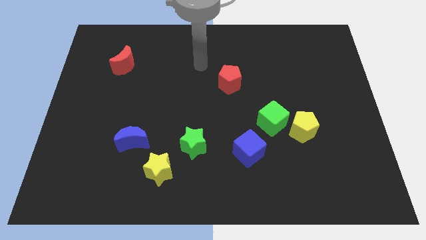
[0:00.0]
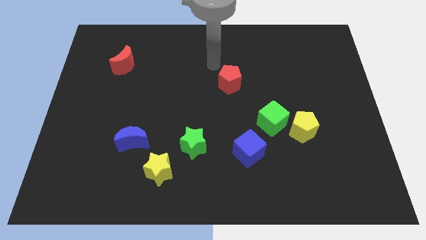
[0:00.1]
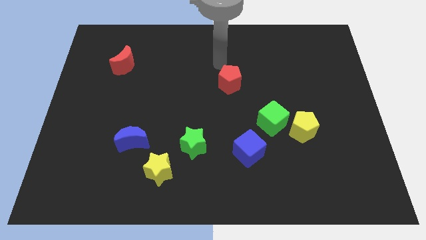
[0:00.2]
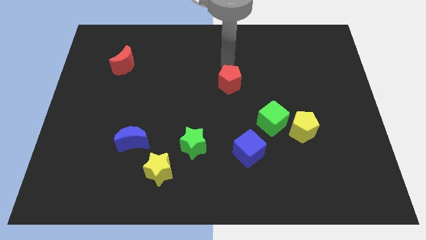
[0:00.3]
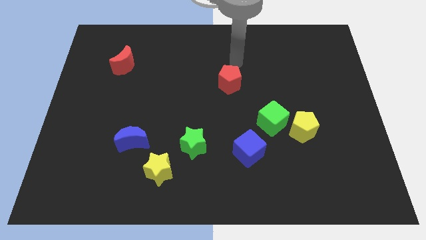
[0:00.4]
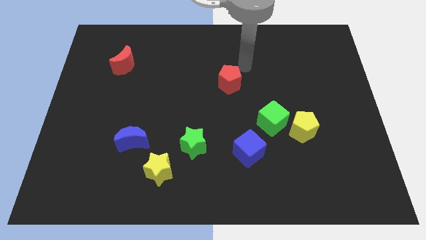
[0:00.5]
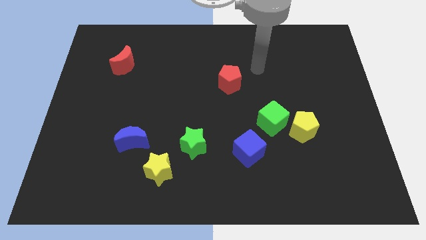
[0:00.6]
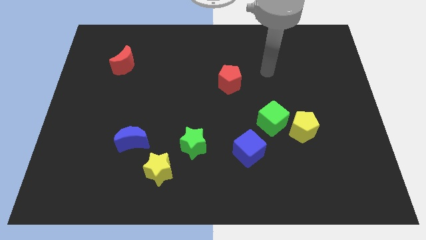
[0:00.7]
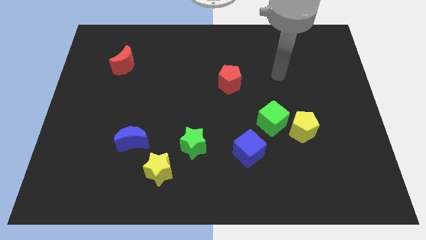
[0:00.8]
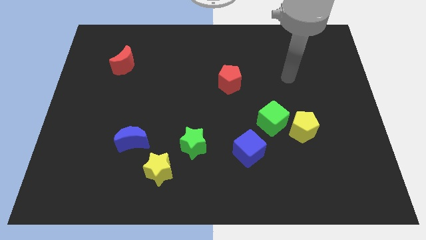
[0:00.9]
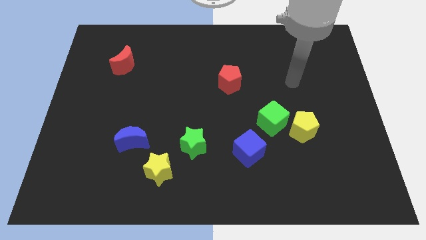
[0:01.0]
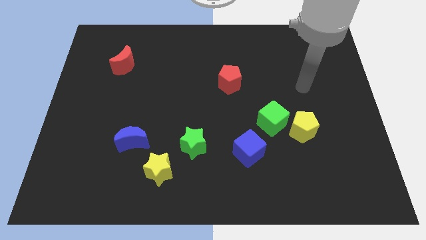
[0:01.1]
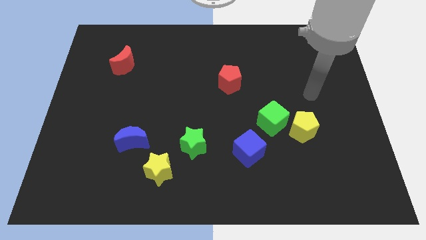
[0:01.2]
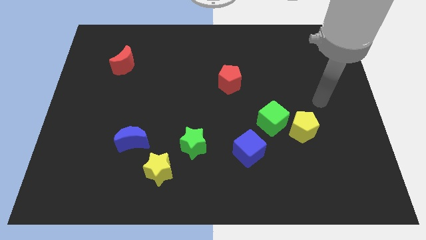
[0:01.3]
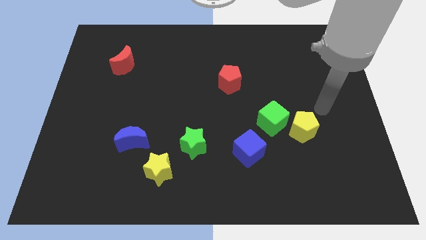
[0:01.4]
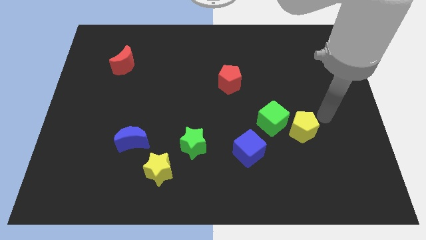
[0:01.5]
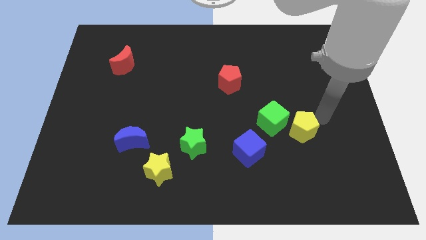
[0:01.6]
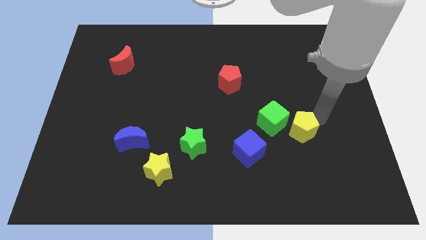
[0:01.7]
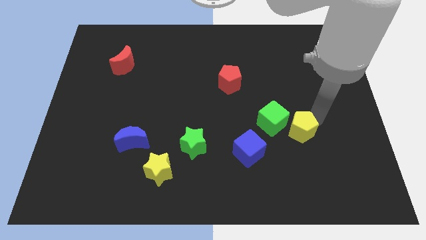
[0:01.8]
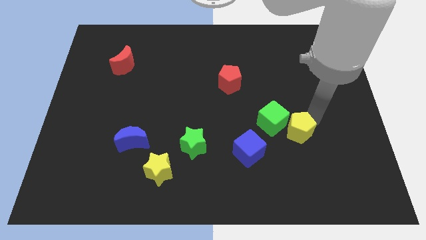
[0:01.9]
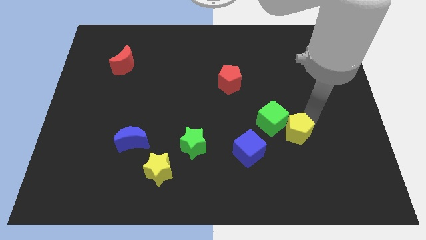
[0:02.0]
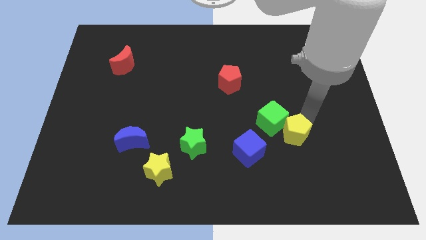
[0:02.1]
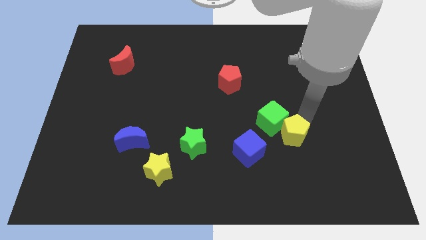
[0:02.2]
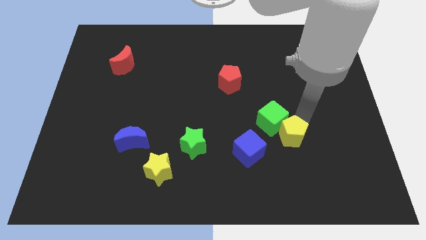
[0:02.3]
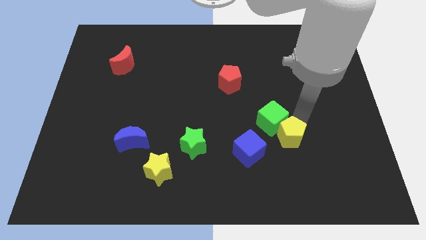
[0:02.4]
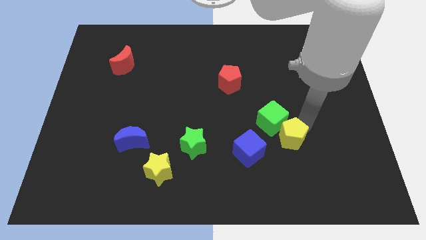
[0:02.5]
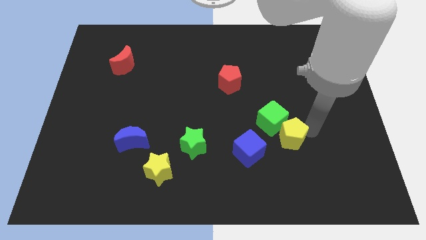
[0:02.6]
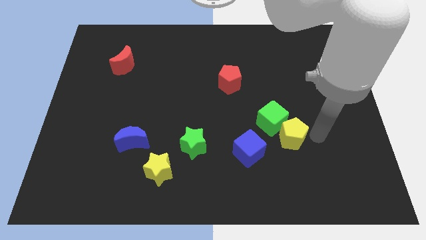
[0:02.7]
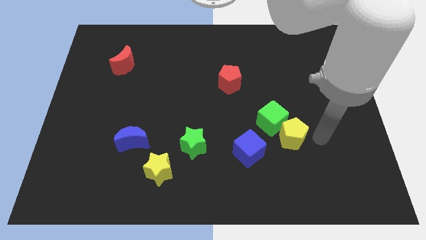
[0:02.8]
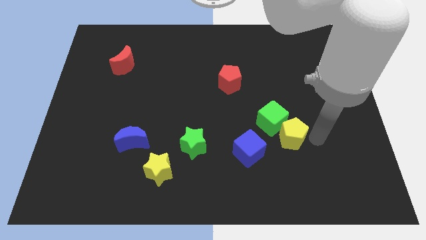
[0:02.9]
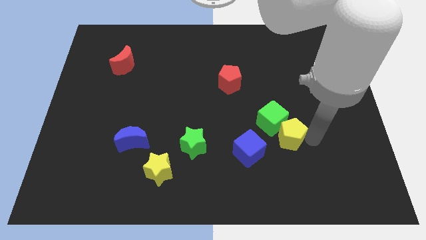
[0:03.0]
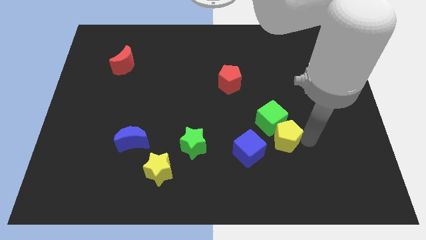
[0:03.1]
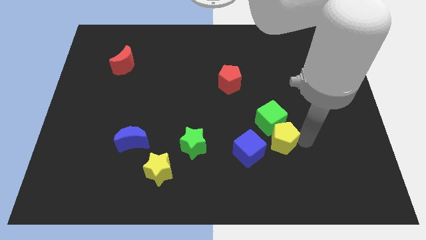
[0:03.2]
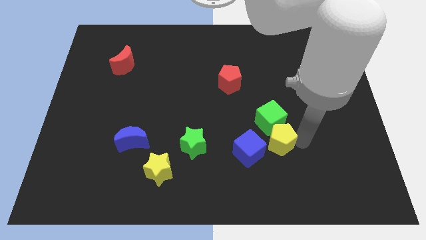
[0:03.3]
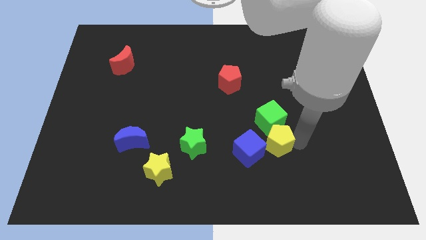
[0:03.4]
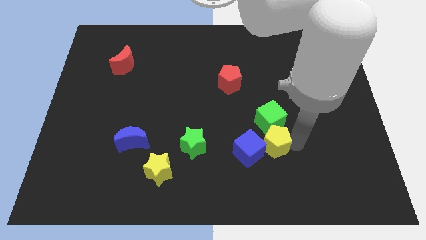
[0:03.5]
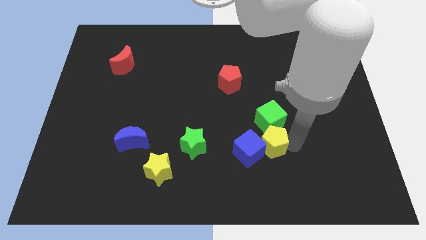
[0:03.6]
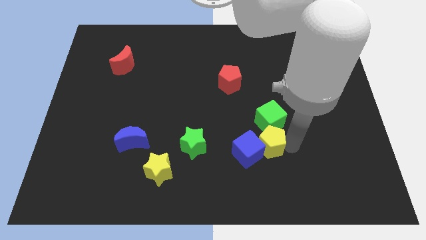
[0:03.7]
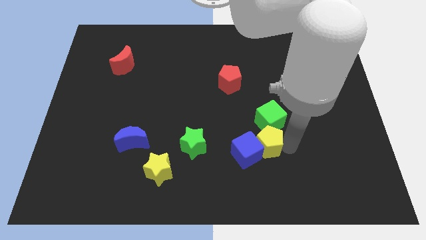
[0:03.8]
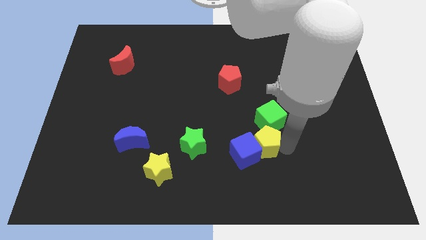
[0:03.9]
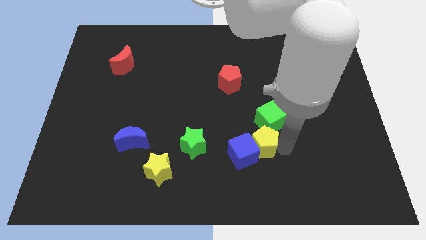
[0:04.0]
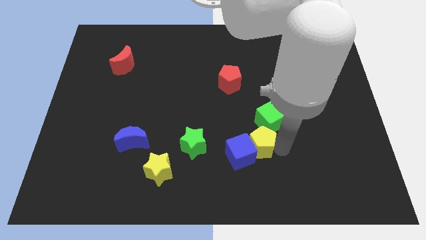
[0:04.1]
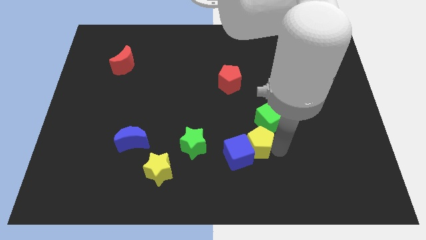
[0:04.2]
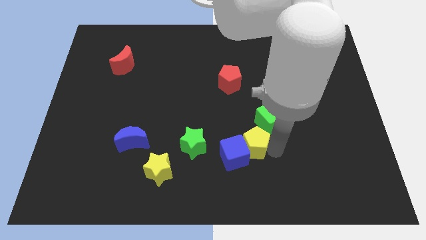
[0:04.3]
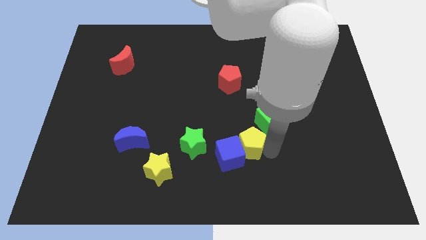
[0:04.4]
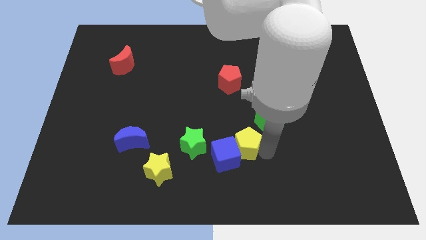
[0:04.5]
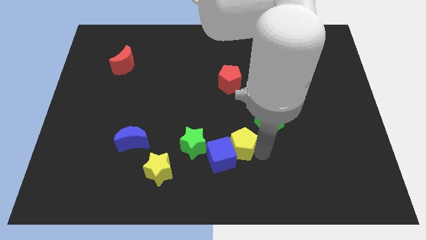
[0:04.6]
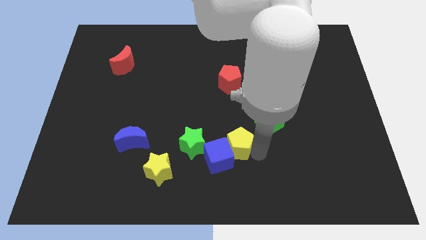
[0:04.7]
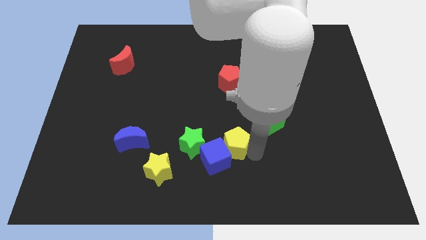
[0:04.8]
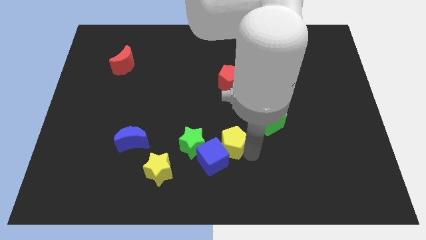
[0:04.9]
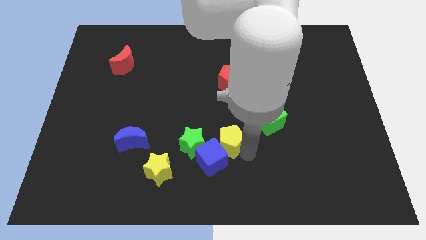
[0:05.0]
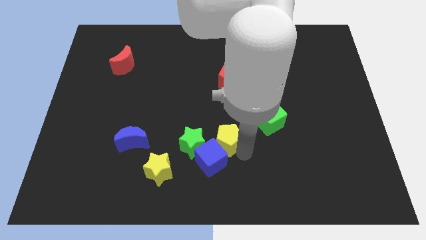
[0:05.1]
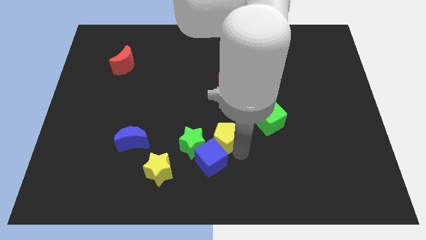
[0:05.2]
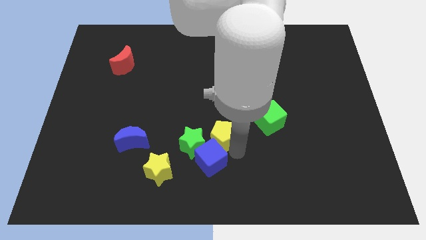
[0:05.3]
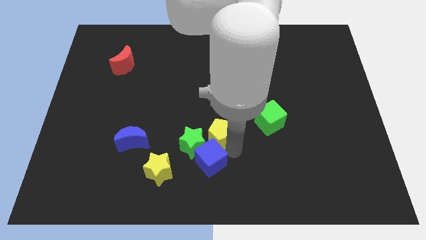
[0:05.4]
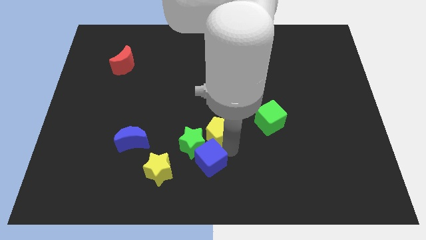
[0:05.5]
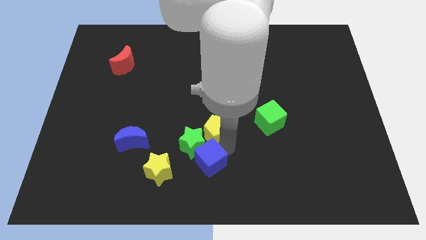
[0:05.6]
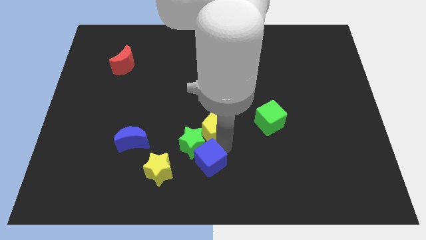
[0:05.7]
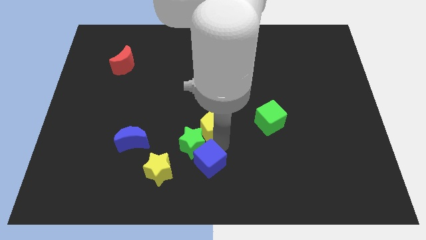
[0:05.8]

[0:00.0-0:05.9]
slide the yellow pentagon to the top of the green star

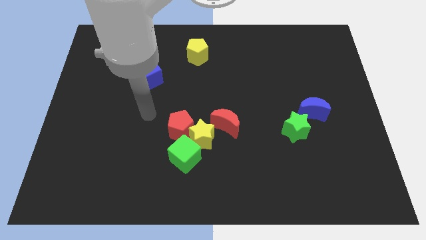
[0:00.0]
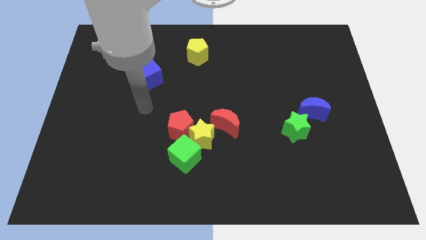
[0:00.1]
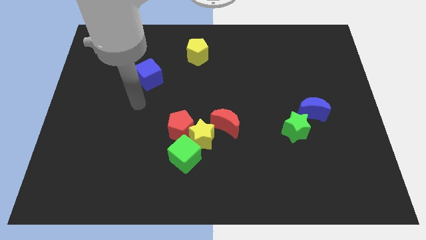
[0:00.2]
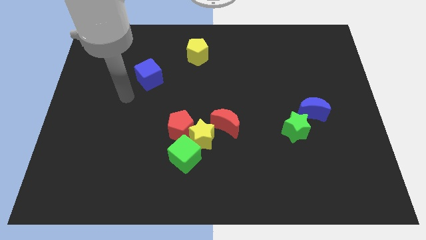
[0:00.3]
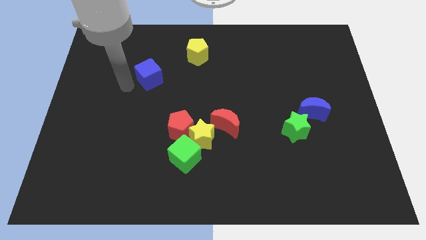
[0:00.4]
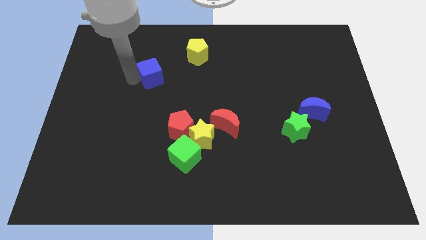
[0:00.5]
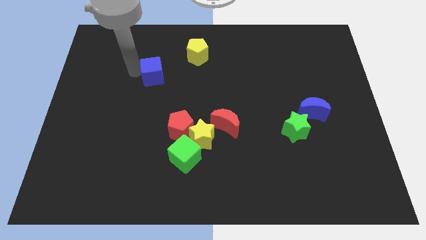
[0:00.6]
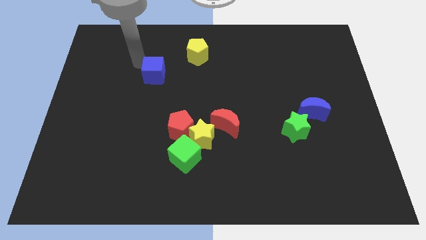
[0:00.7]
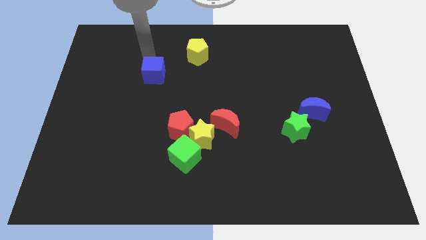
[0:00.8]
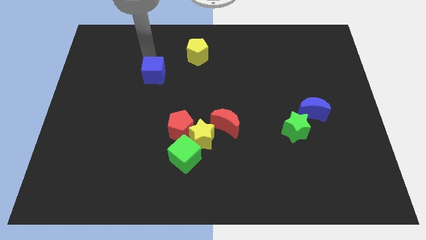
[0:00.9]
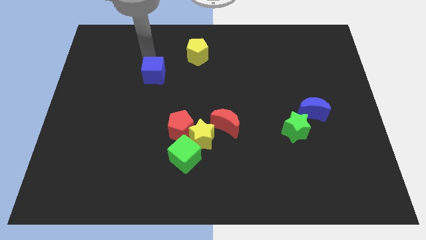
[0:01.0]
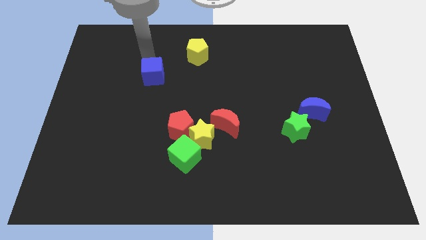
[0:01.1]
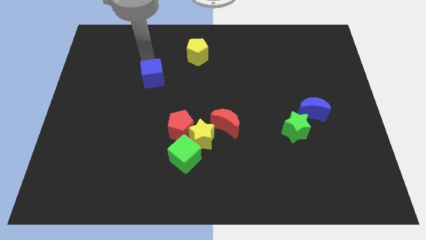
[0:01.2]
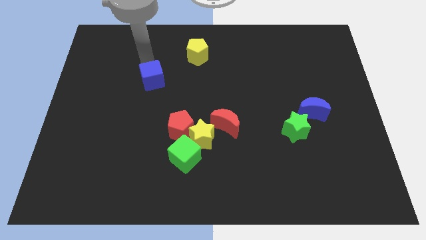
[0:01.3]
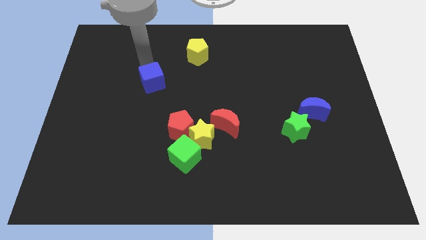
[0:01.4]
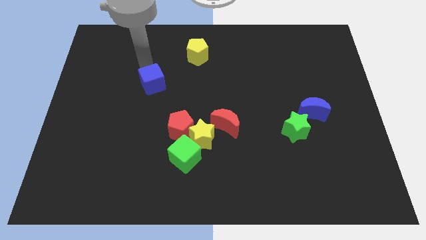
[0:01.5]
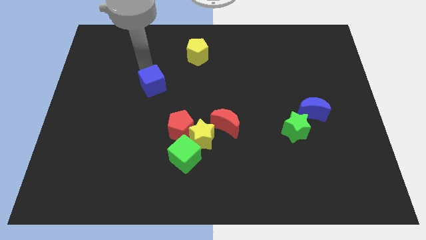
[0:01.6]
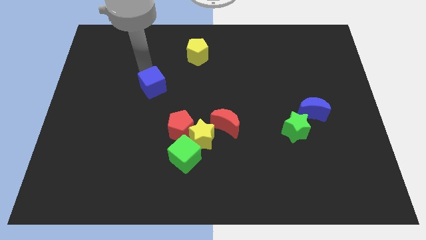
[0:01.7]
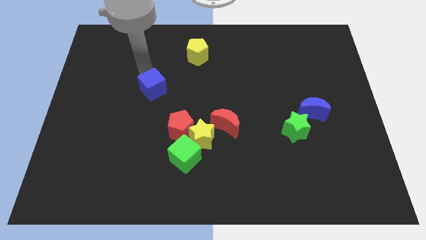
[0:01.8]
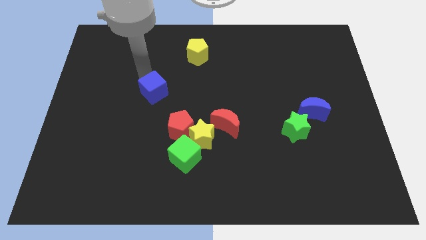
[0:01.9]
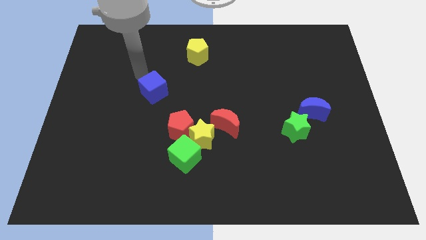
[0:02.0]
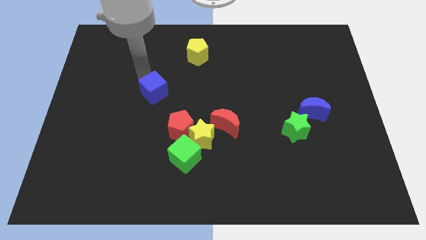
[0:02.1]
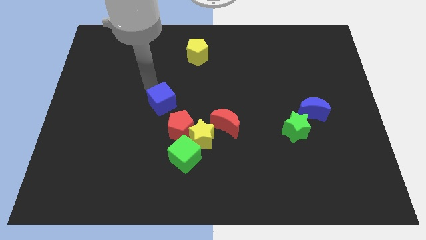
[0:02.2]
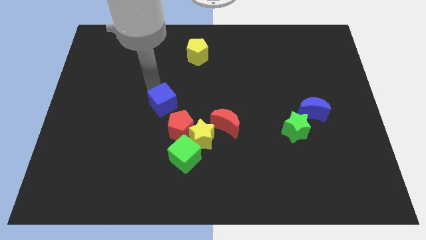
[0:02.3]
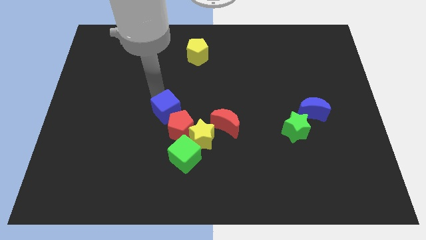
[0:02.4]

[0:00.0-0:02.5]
slide the blue cube diagonally up and to the left of the yellow star
